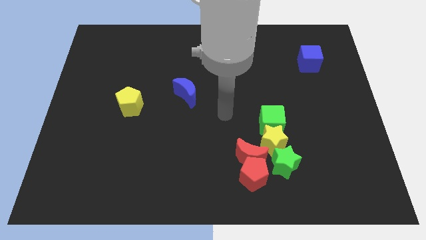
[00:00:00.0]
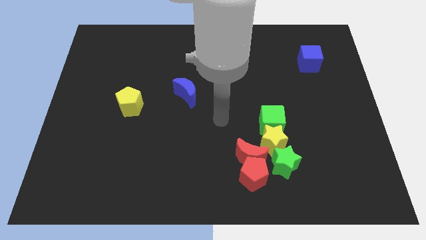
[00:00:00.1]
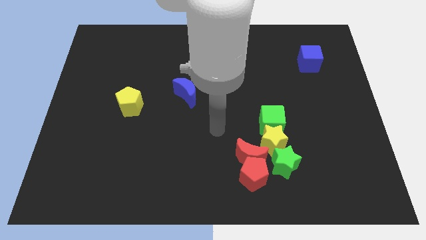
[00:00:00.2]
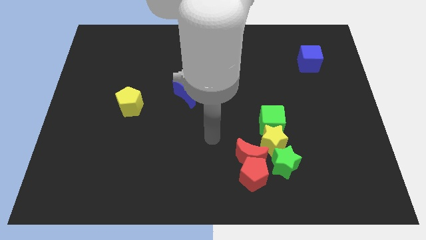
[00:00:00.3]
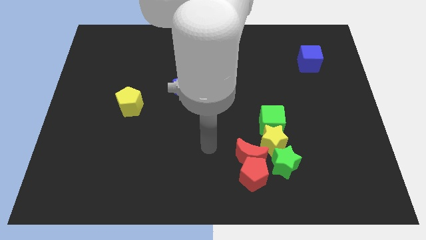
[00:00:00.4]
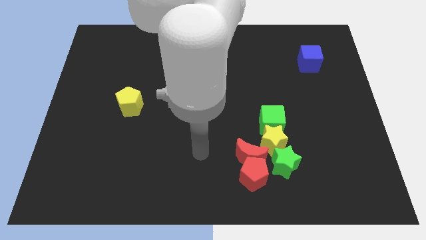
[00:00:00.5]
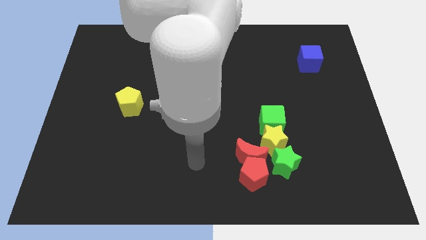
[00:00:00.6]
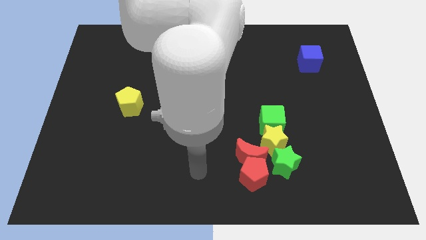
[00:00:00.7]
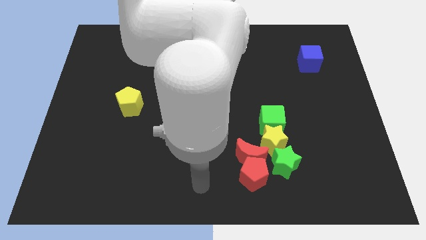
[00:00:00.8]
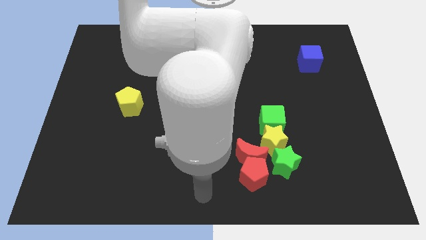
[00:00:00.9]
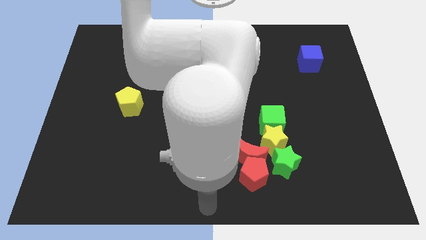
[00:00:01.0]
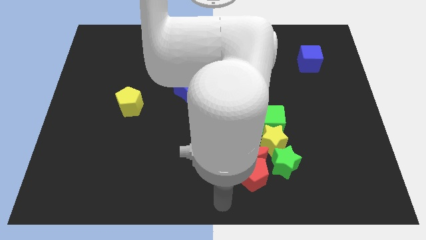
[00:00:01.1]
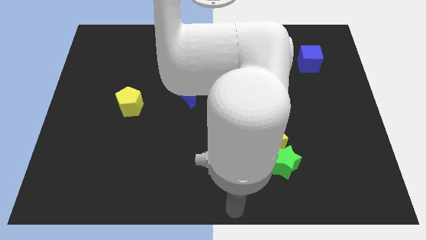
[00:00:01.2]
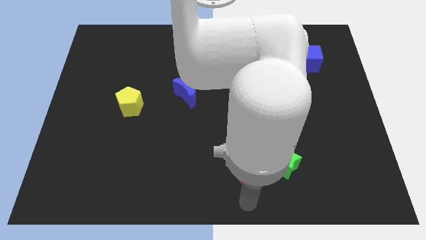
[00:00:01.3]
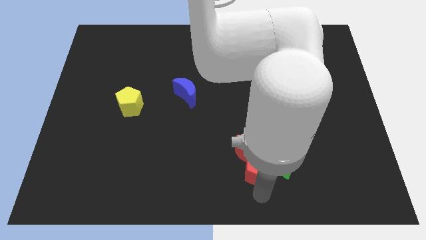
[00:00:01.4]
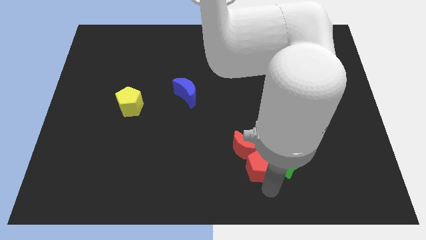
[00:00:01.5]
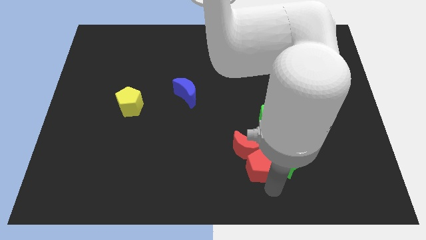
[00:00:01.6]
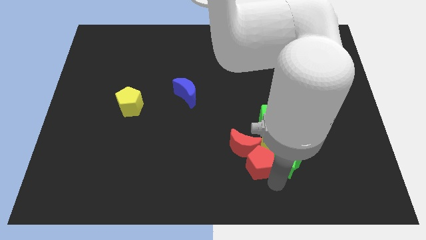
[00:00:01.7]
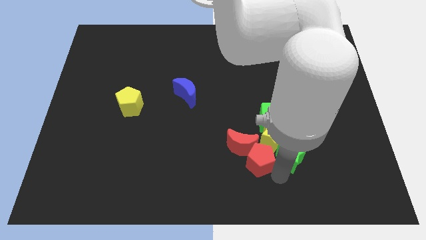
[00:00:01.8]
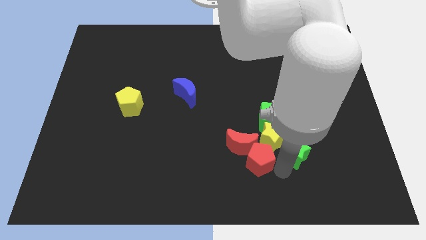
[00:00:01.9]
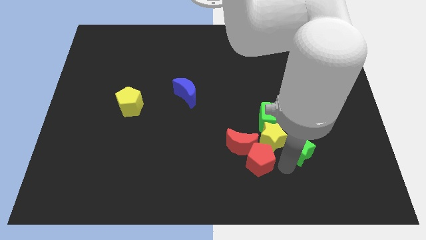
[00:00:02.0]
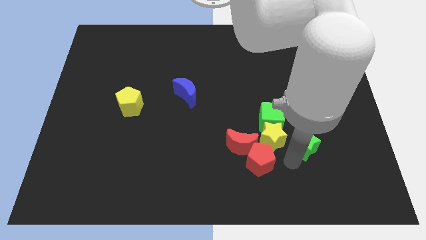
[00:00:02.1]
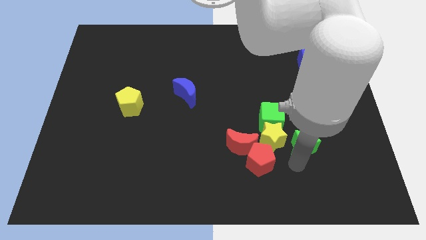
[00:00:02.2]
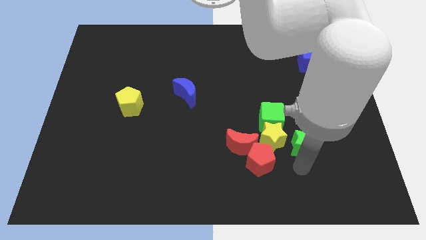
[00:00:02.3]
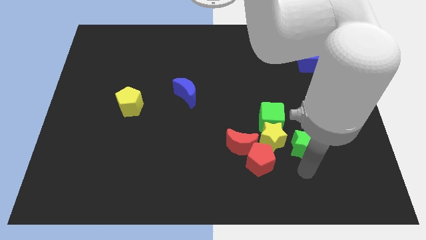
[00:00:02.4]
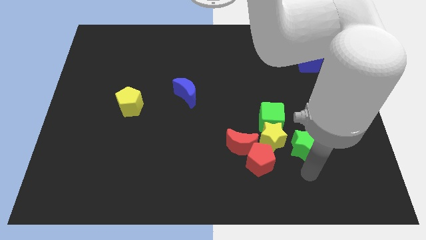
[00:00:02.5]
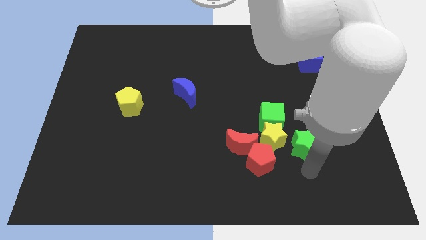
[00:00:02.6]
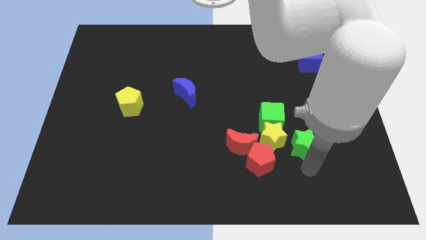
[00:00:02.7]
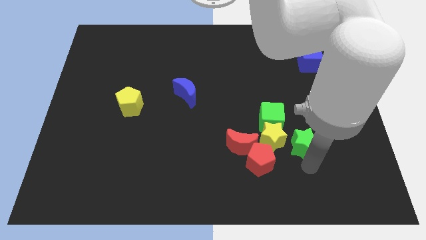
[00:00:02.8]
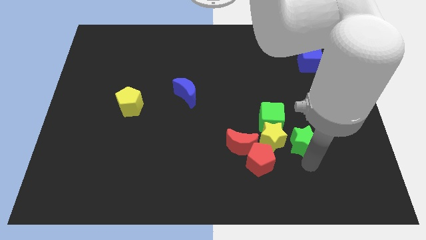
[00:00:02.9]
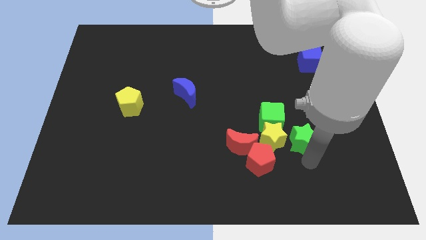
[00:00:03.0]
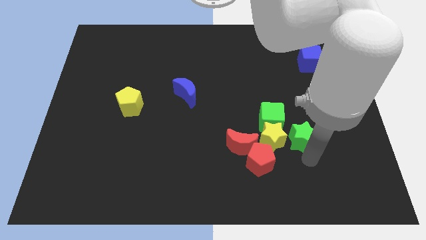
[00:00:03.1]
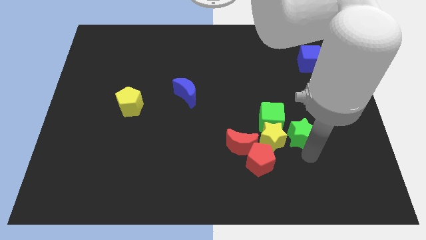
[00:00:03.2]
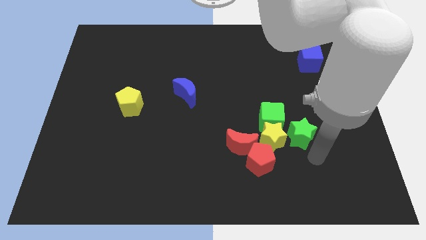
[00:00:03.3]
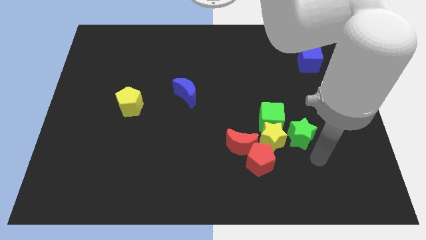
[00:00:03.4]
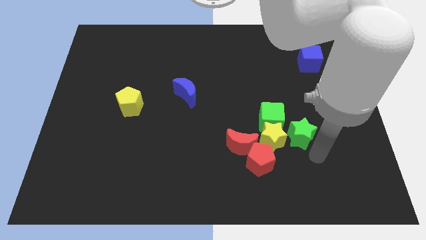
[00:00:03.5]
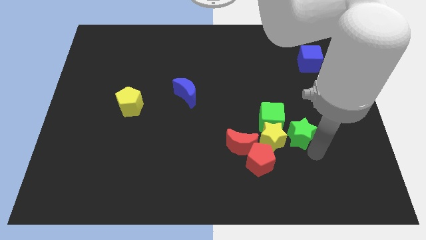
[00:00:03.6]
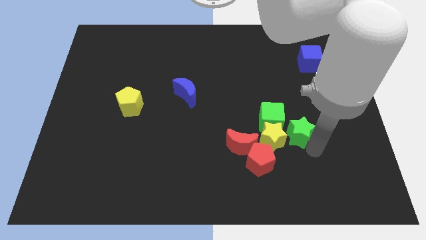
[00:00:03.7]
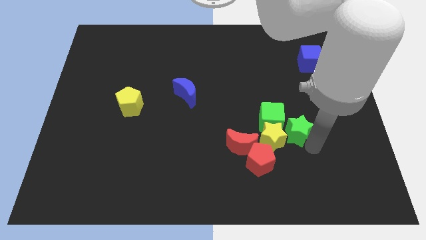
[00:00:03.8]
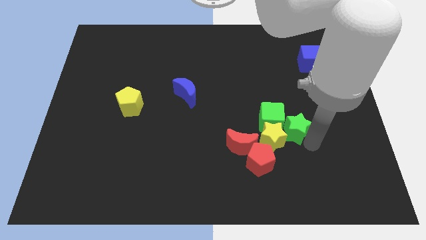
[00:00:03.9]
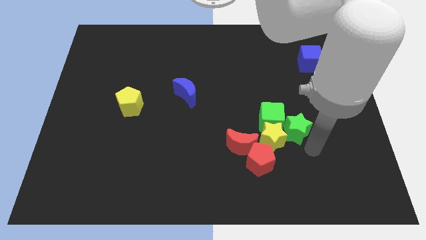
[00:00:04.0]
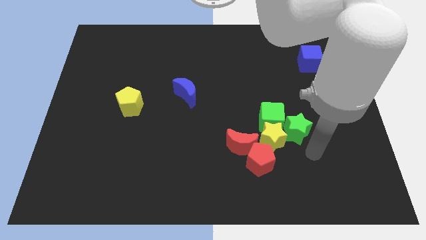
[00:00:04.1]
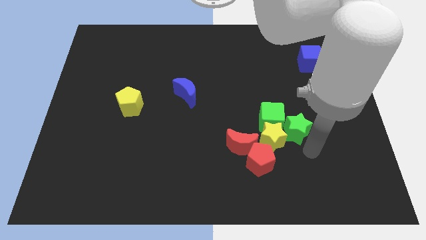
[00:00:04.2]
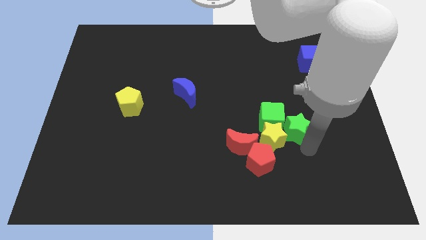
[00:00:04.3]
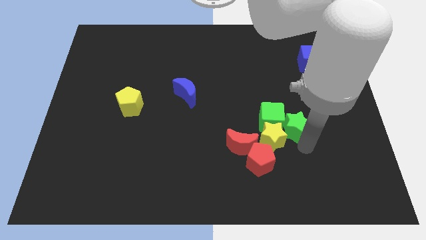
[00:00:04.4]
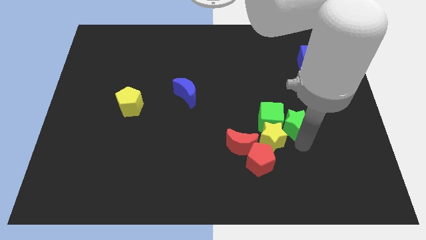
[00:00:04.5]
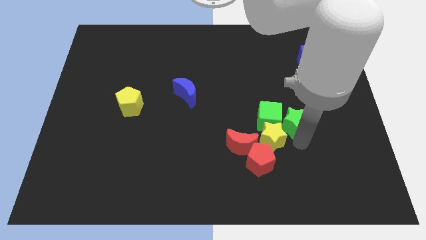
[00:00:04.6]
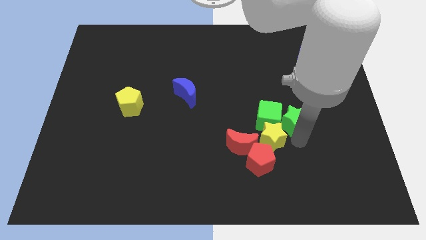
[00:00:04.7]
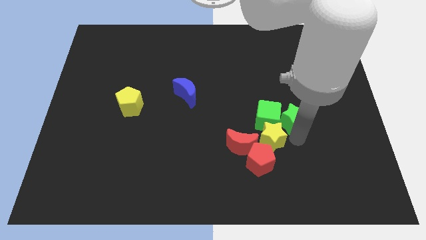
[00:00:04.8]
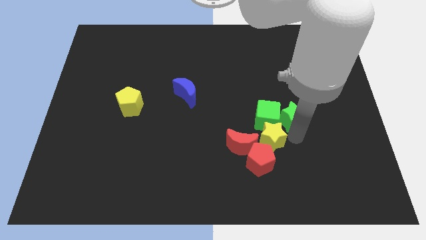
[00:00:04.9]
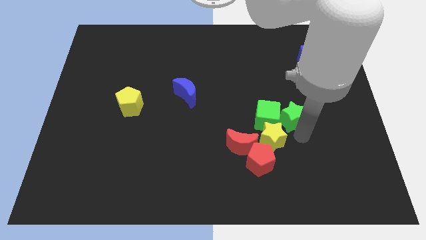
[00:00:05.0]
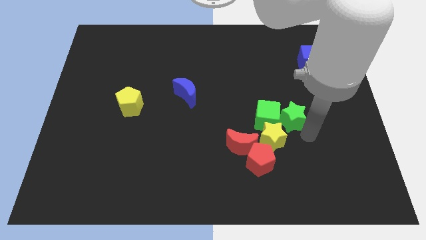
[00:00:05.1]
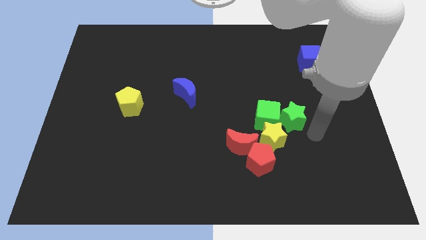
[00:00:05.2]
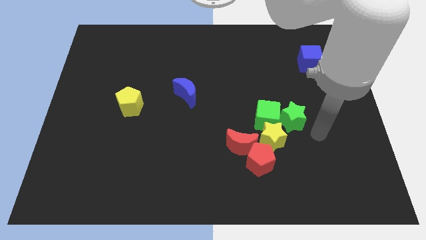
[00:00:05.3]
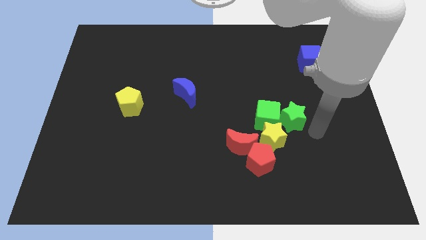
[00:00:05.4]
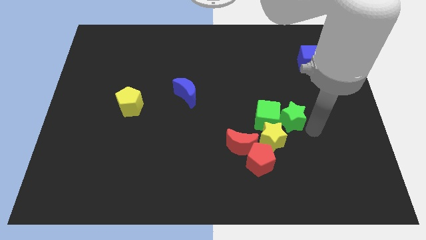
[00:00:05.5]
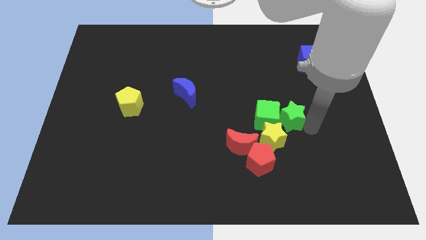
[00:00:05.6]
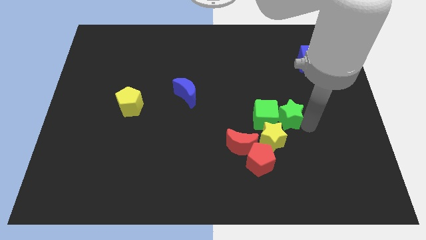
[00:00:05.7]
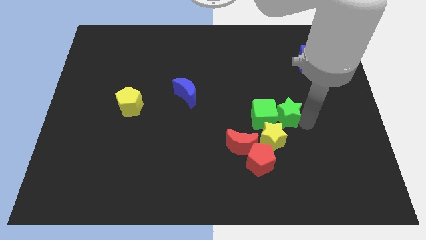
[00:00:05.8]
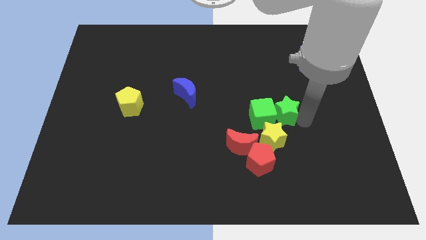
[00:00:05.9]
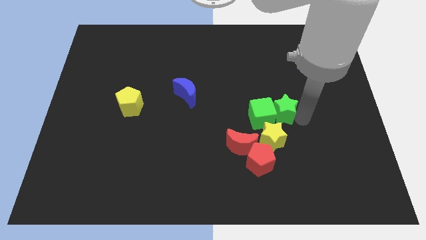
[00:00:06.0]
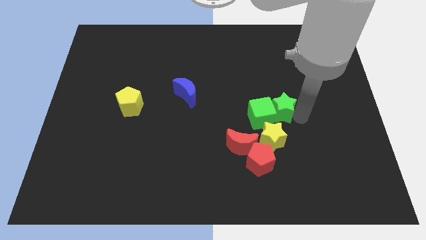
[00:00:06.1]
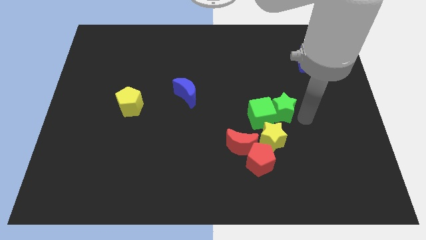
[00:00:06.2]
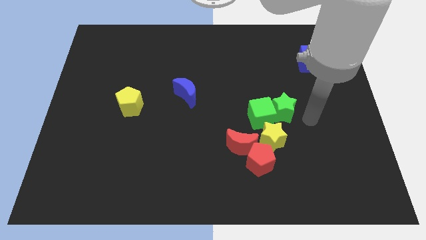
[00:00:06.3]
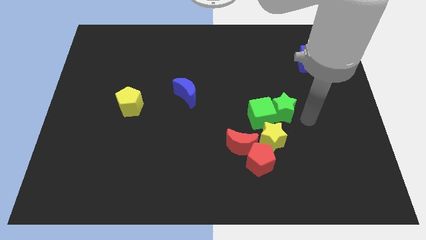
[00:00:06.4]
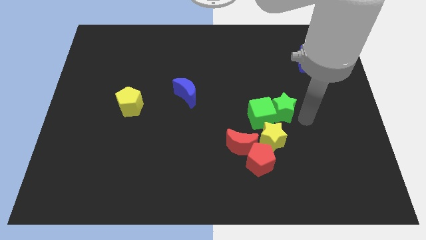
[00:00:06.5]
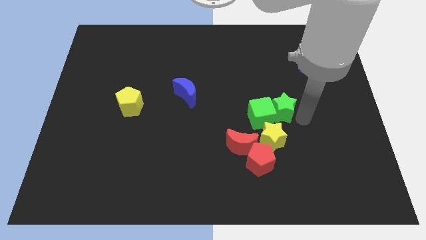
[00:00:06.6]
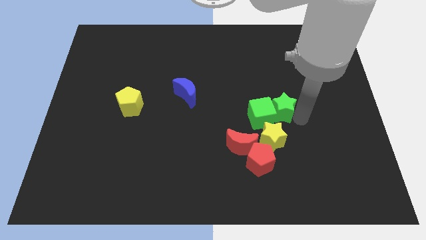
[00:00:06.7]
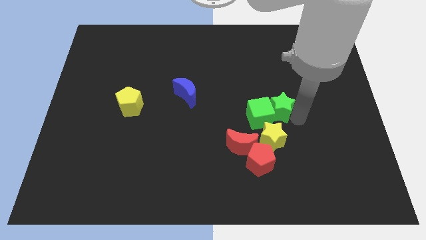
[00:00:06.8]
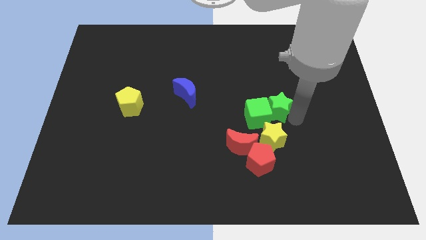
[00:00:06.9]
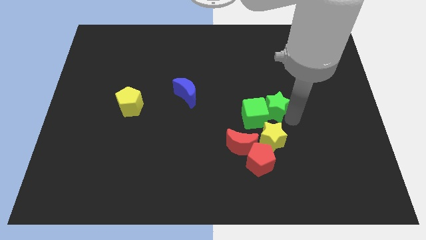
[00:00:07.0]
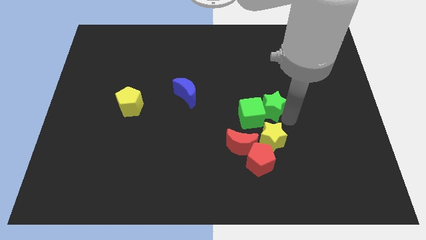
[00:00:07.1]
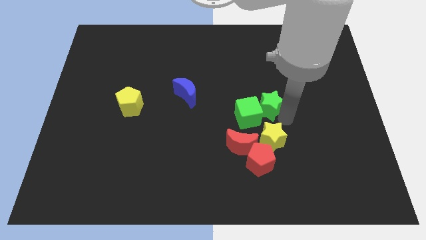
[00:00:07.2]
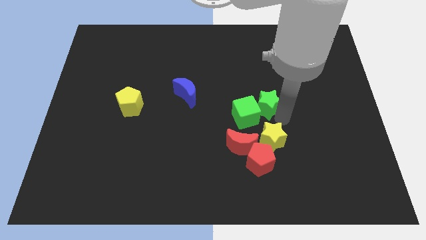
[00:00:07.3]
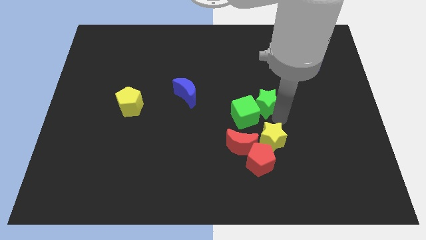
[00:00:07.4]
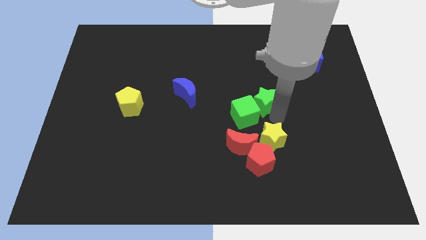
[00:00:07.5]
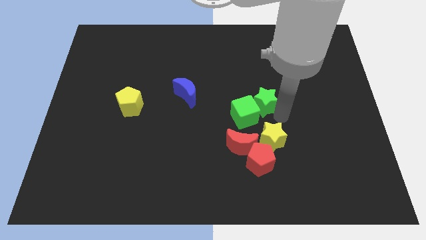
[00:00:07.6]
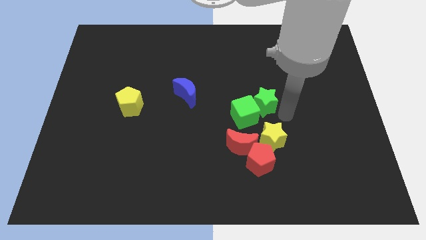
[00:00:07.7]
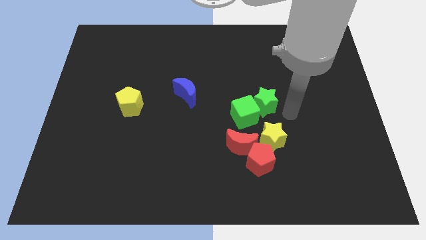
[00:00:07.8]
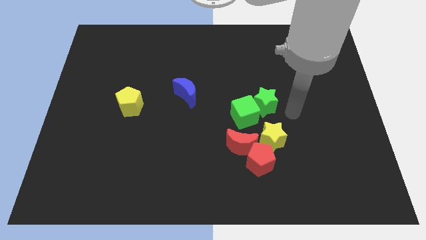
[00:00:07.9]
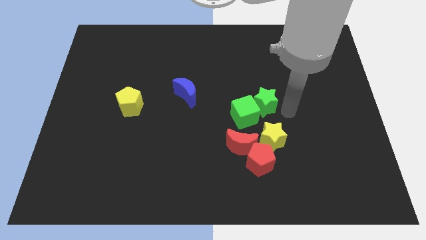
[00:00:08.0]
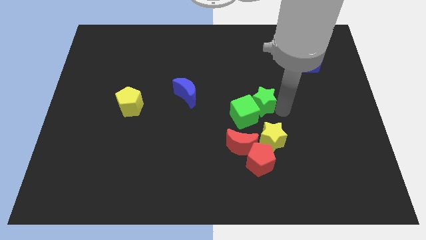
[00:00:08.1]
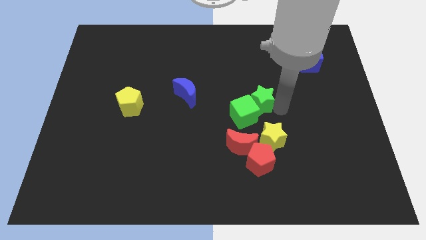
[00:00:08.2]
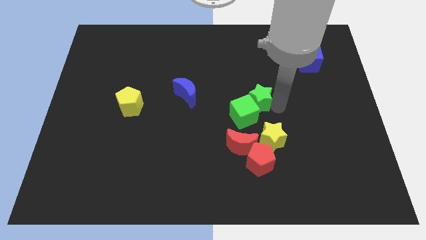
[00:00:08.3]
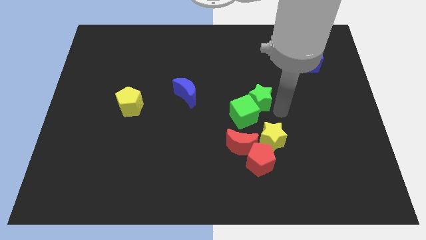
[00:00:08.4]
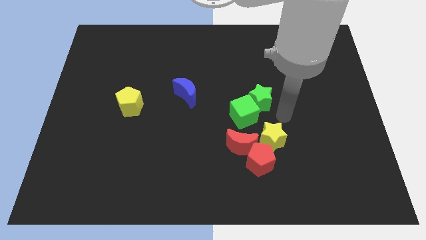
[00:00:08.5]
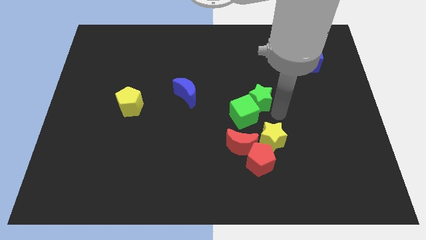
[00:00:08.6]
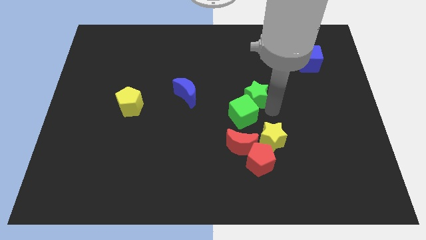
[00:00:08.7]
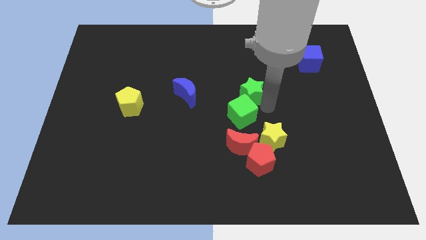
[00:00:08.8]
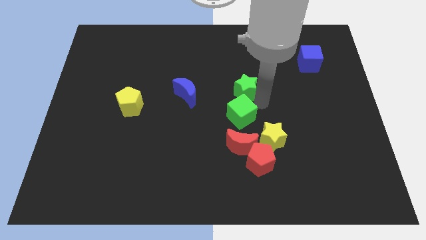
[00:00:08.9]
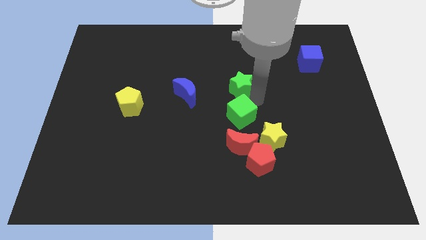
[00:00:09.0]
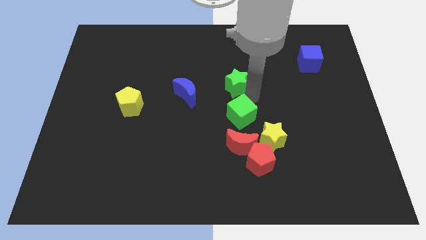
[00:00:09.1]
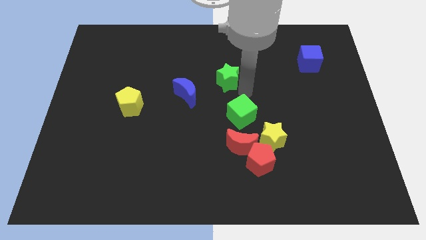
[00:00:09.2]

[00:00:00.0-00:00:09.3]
move the green star up and to the left
